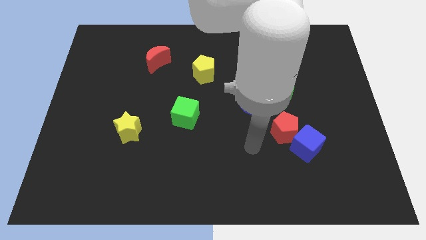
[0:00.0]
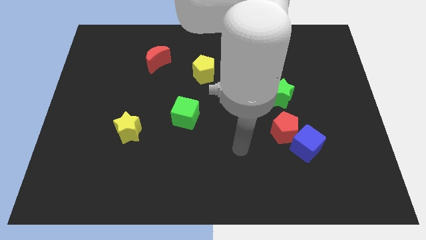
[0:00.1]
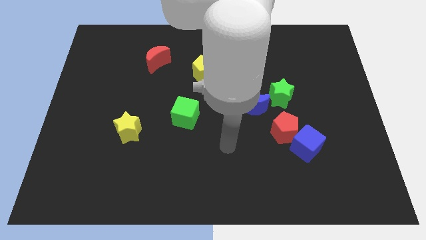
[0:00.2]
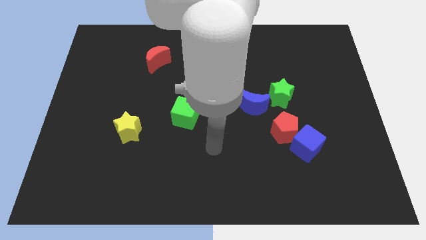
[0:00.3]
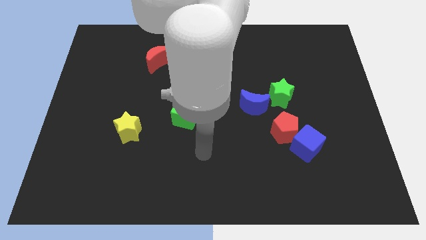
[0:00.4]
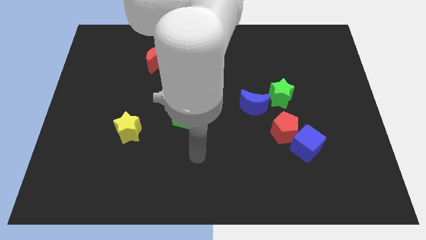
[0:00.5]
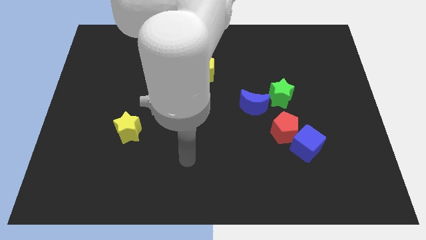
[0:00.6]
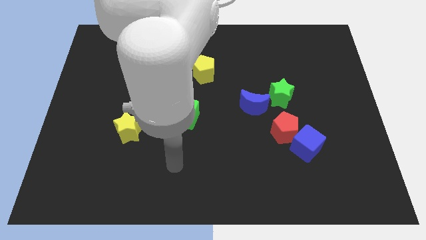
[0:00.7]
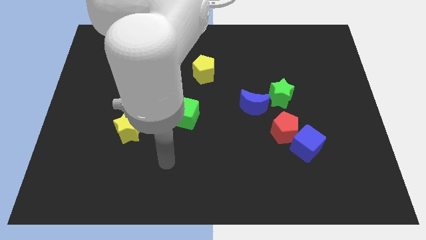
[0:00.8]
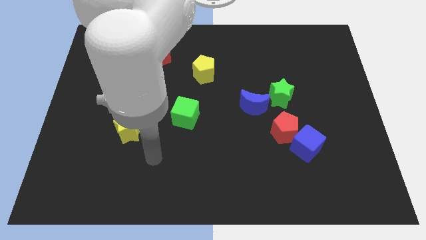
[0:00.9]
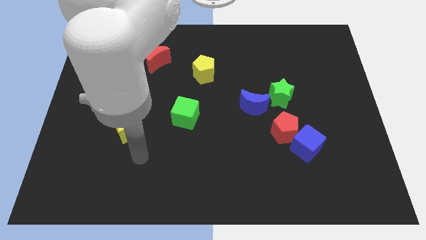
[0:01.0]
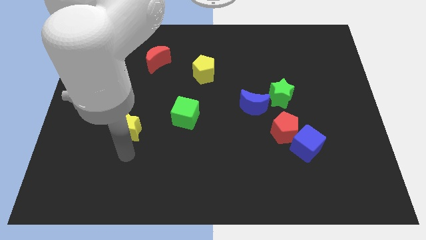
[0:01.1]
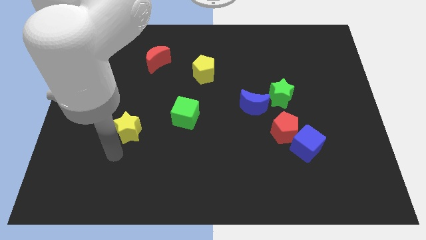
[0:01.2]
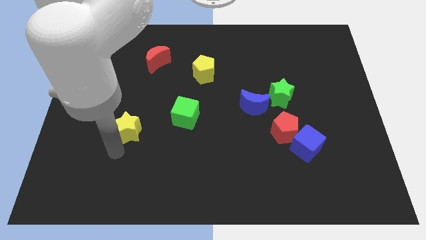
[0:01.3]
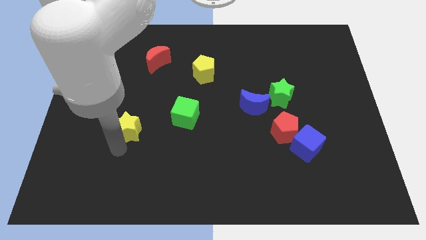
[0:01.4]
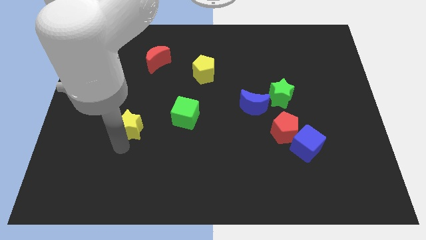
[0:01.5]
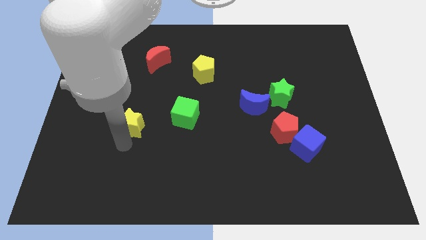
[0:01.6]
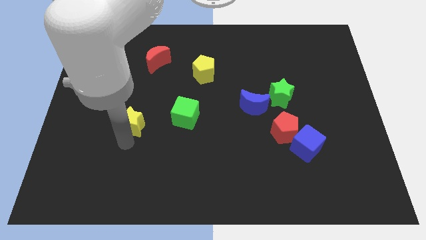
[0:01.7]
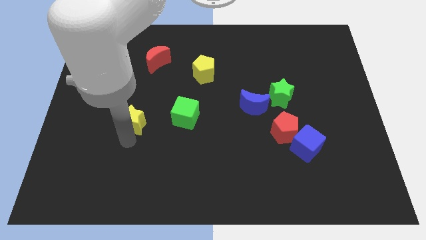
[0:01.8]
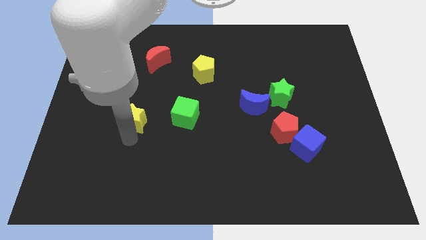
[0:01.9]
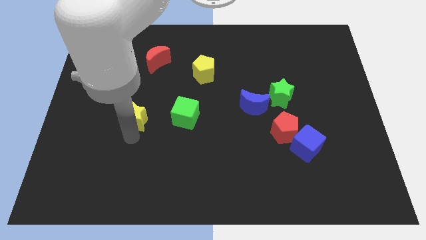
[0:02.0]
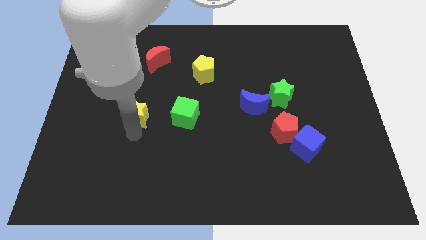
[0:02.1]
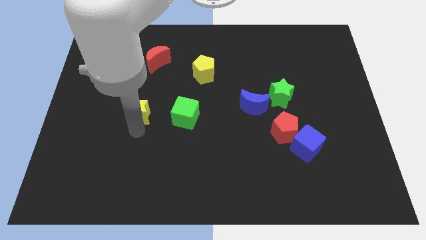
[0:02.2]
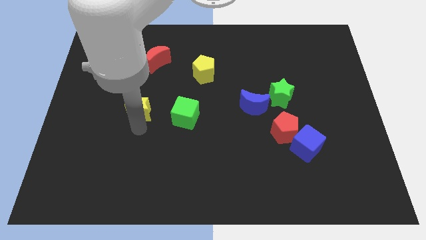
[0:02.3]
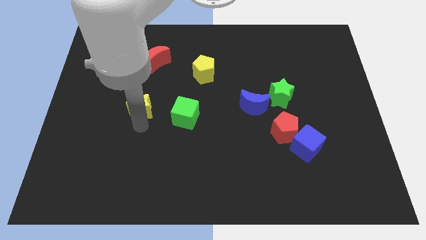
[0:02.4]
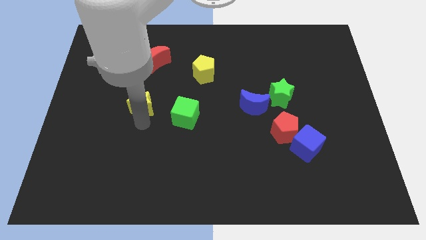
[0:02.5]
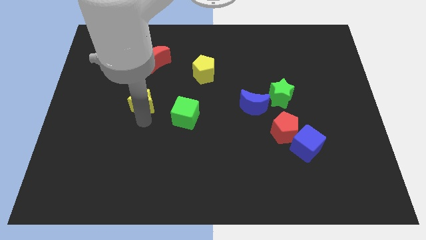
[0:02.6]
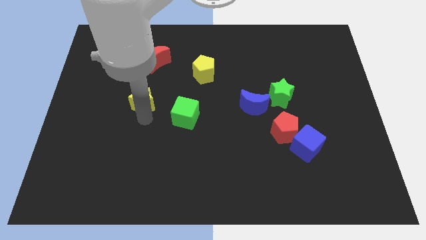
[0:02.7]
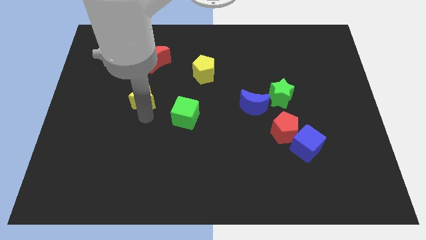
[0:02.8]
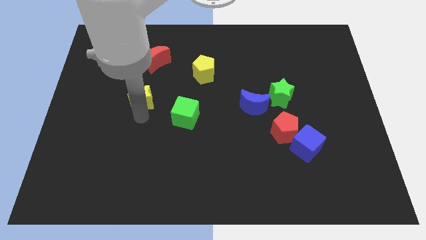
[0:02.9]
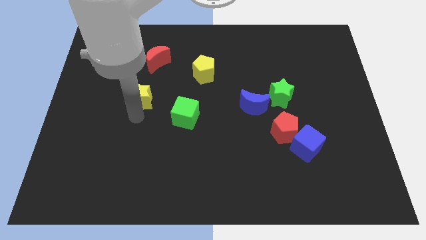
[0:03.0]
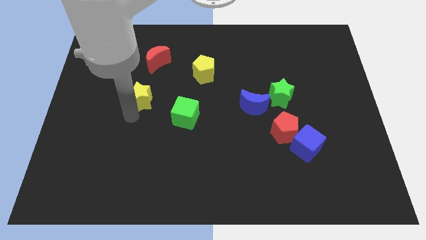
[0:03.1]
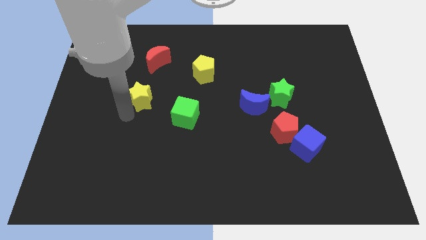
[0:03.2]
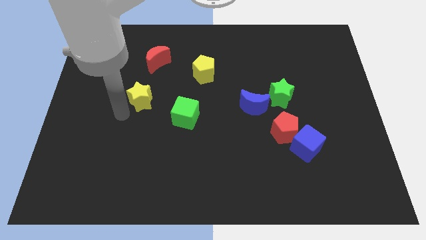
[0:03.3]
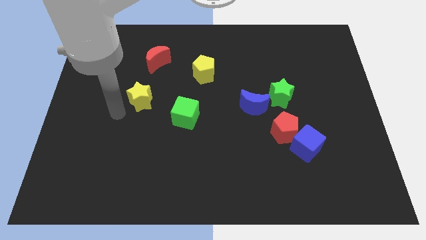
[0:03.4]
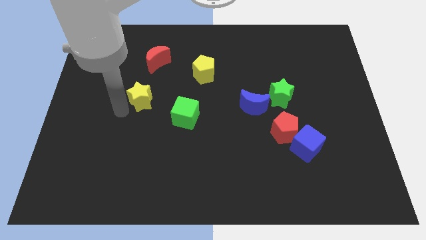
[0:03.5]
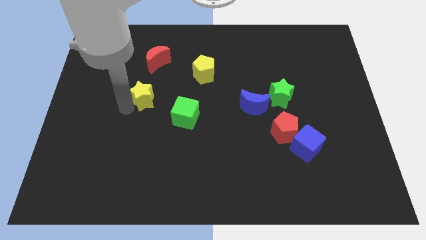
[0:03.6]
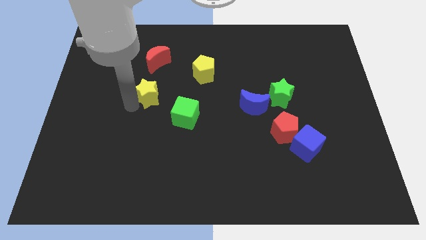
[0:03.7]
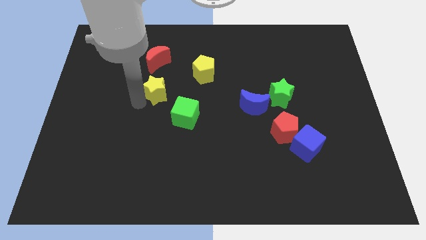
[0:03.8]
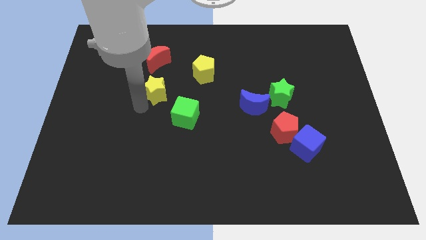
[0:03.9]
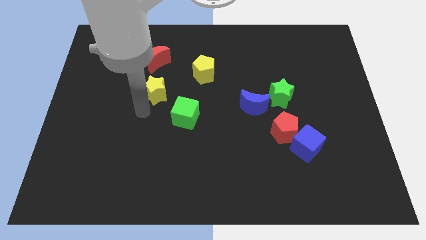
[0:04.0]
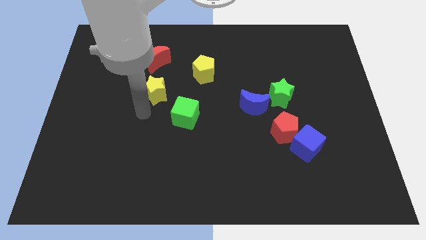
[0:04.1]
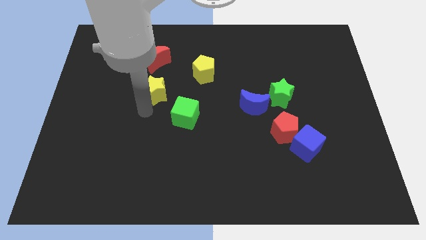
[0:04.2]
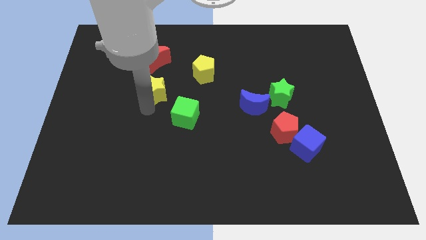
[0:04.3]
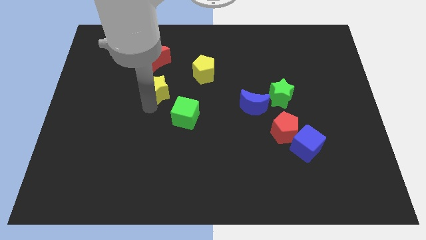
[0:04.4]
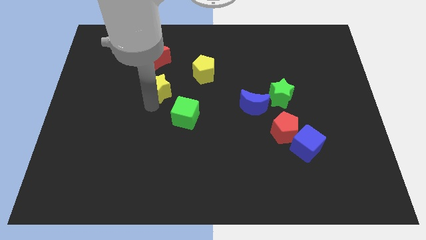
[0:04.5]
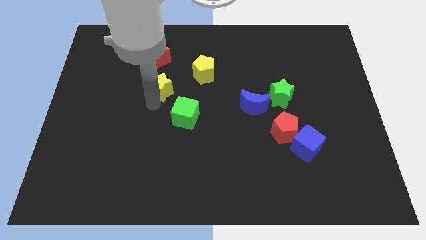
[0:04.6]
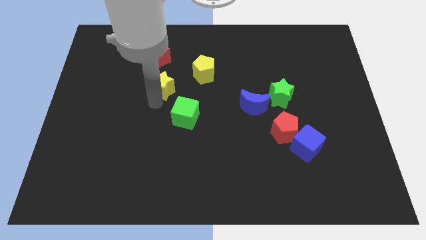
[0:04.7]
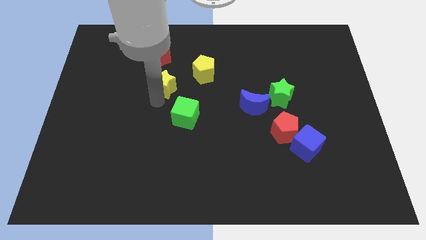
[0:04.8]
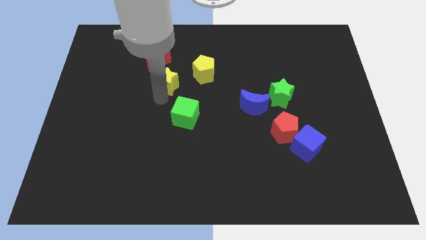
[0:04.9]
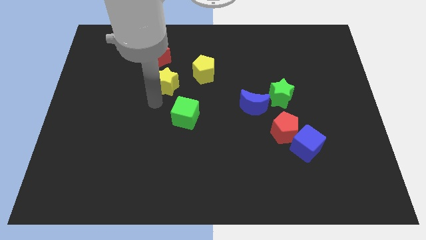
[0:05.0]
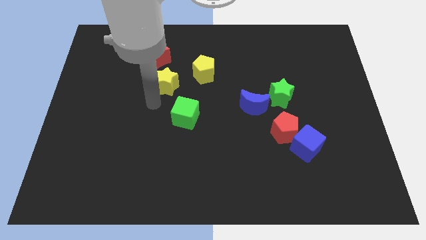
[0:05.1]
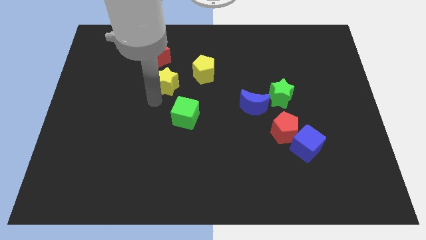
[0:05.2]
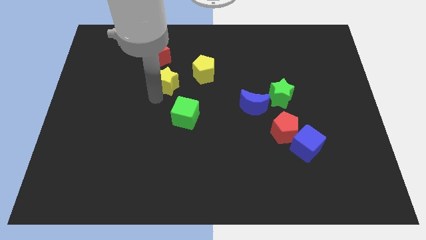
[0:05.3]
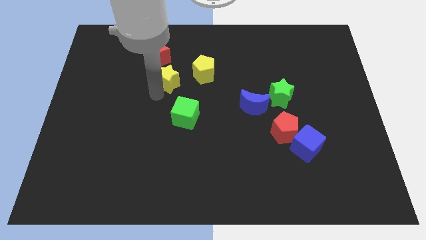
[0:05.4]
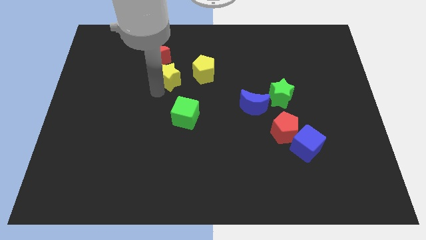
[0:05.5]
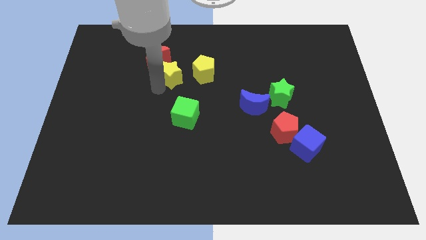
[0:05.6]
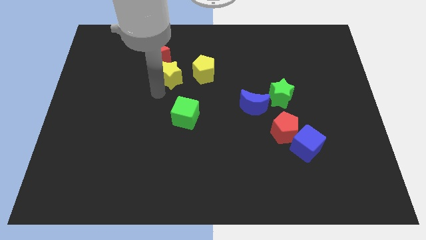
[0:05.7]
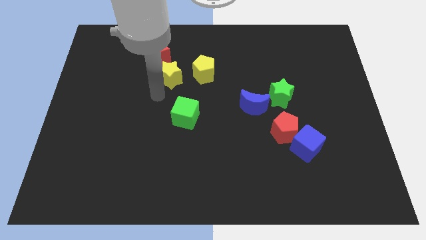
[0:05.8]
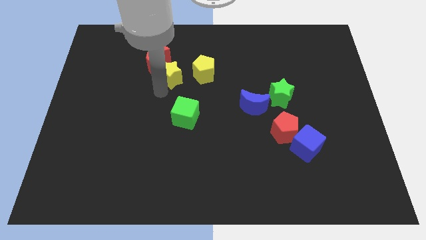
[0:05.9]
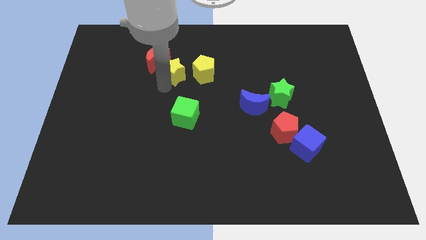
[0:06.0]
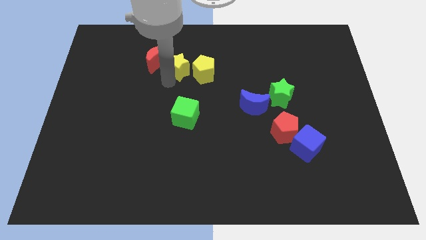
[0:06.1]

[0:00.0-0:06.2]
put the yellow star to the top left of the yellow pentagon

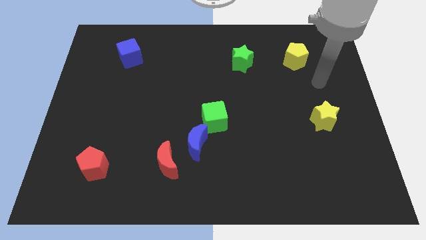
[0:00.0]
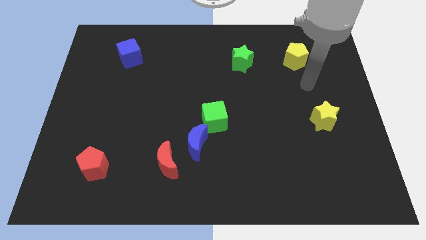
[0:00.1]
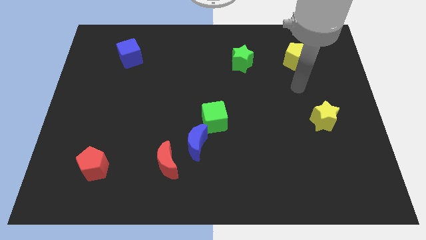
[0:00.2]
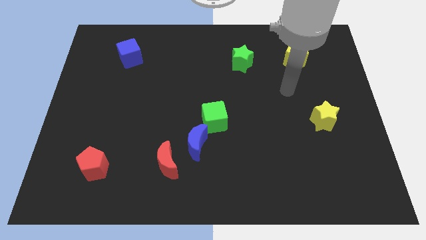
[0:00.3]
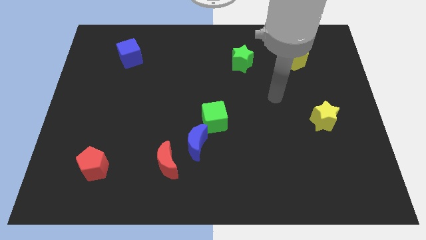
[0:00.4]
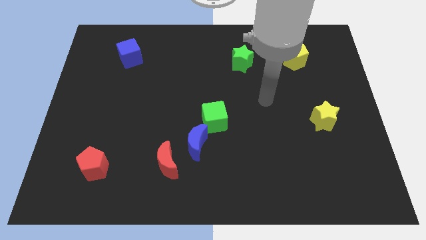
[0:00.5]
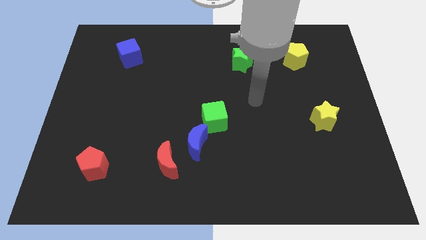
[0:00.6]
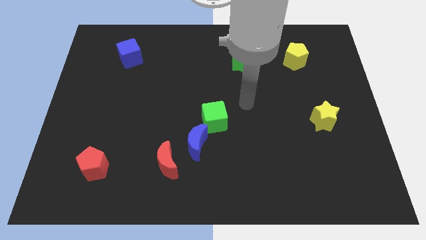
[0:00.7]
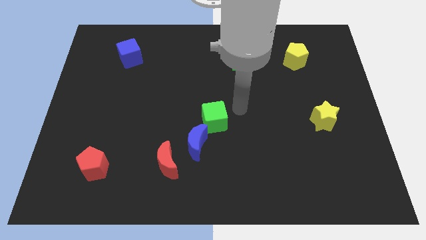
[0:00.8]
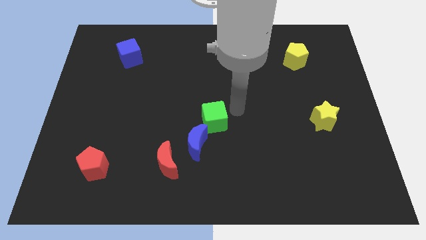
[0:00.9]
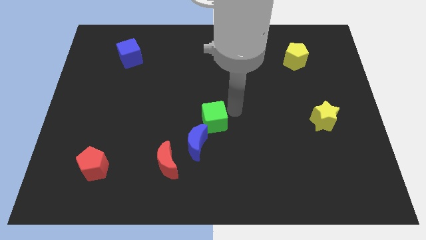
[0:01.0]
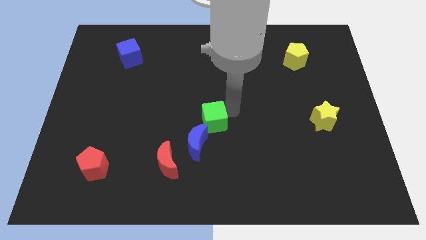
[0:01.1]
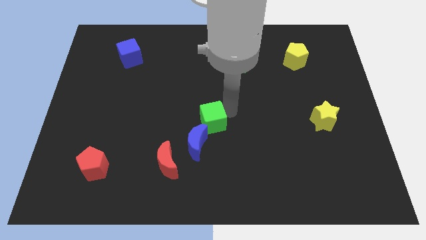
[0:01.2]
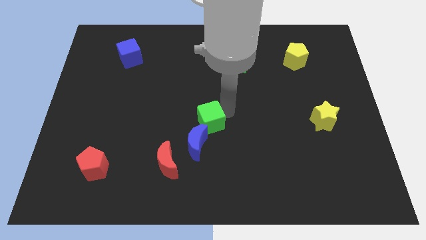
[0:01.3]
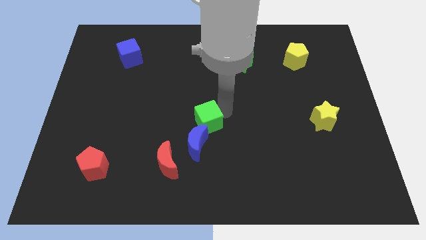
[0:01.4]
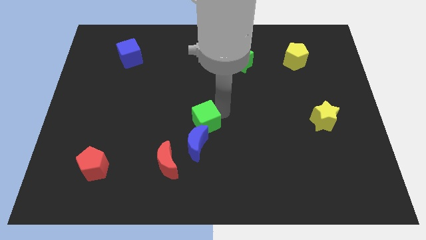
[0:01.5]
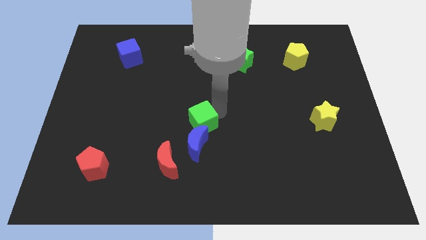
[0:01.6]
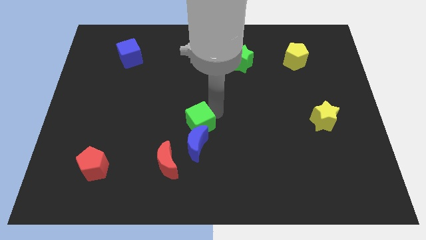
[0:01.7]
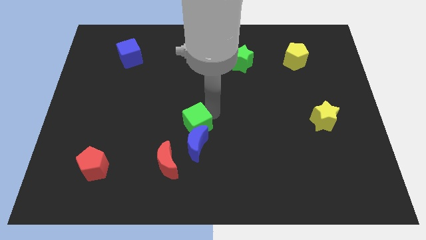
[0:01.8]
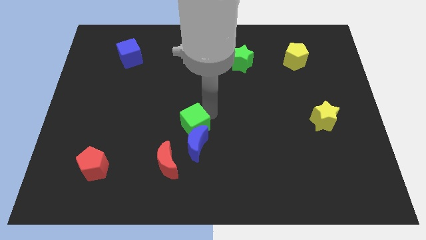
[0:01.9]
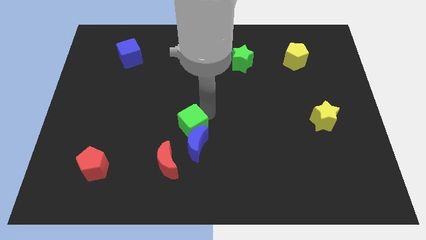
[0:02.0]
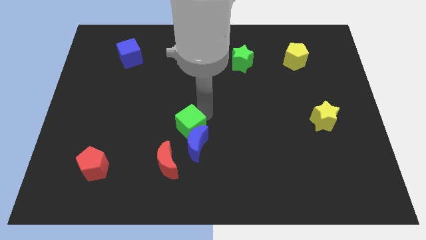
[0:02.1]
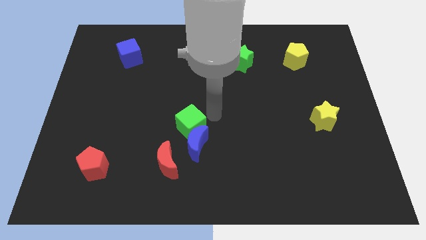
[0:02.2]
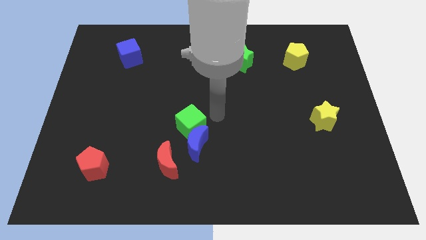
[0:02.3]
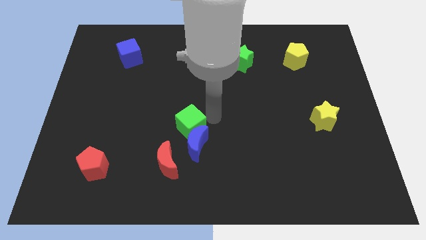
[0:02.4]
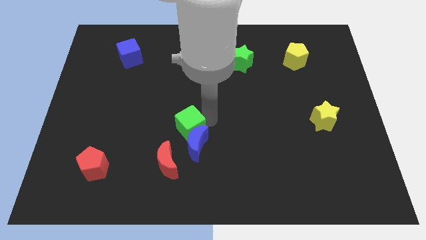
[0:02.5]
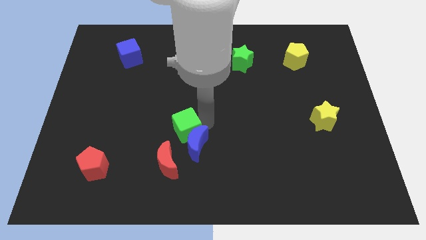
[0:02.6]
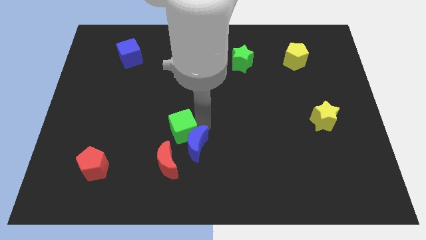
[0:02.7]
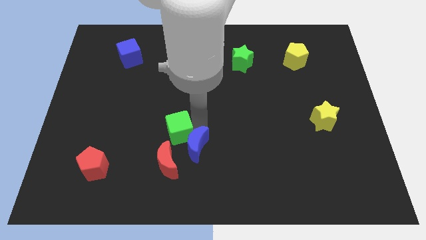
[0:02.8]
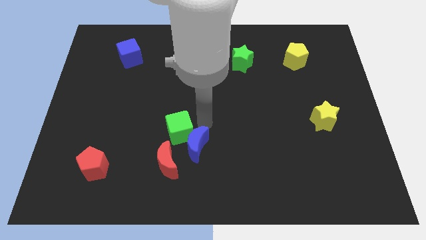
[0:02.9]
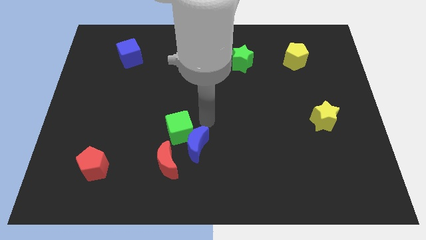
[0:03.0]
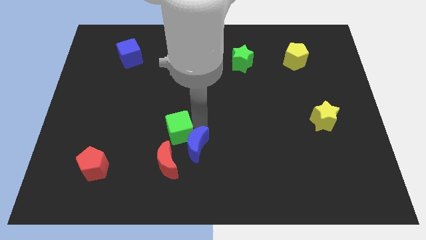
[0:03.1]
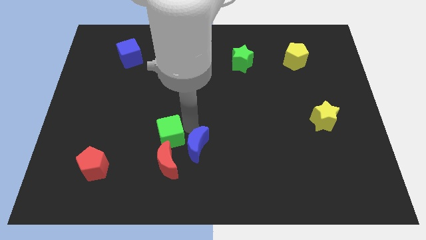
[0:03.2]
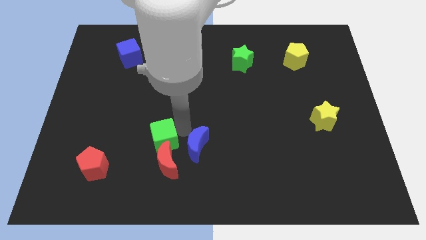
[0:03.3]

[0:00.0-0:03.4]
move the green cube to the top left side of the red moon
